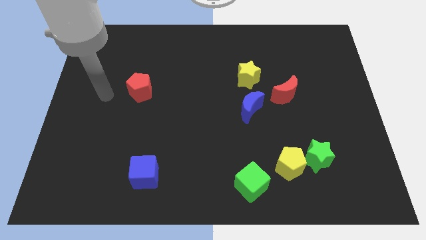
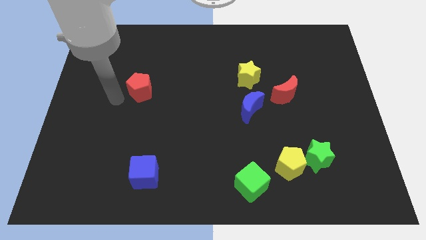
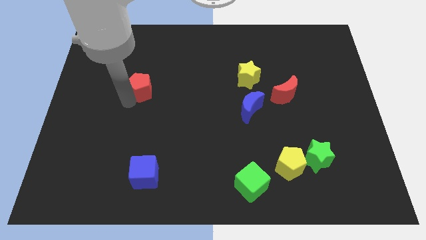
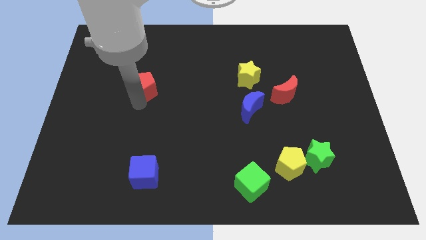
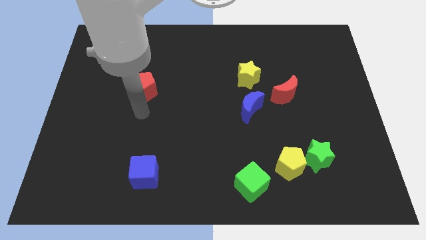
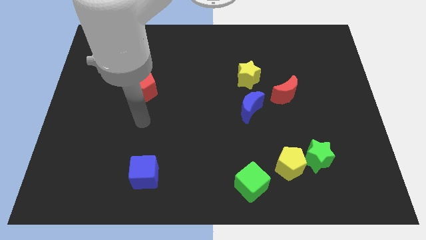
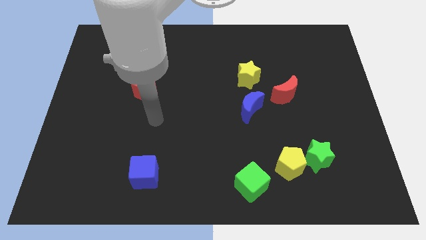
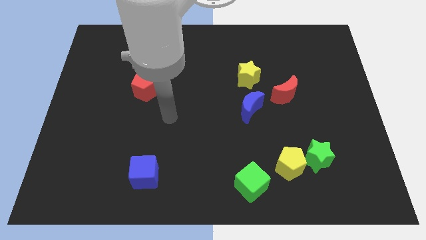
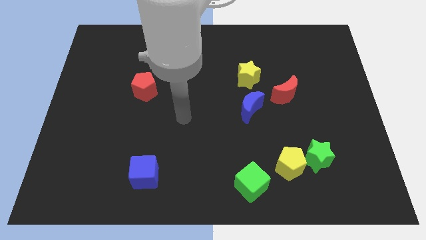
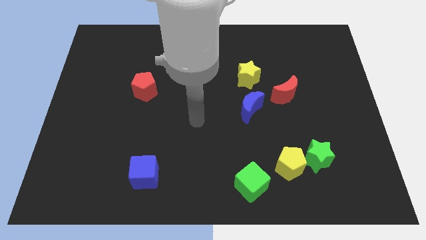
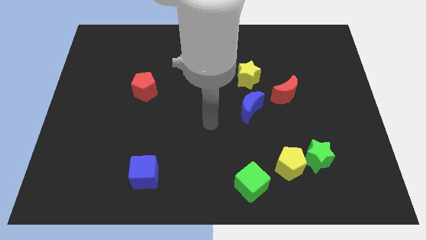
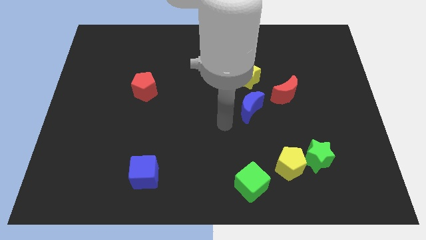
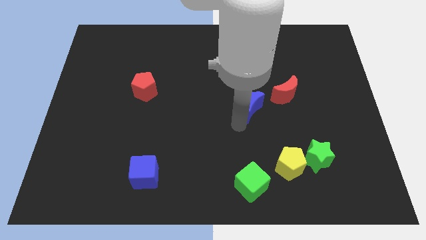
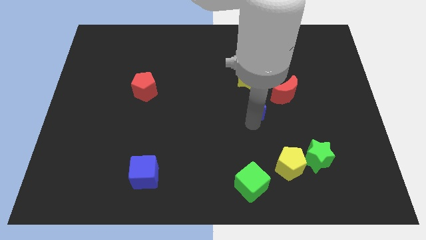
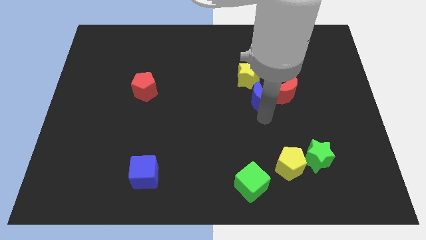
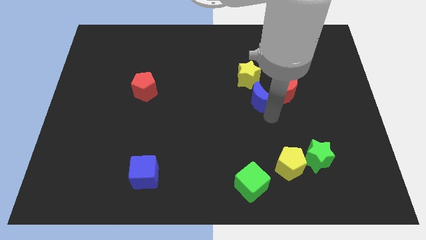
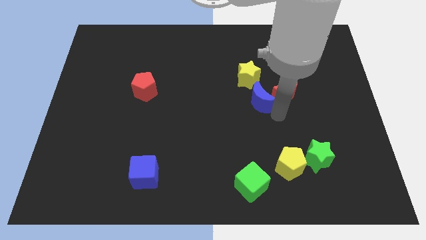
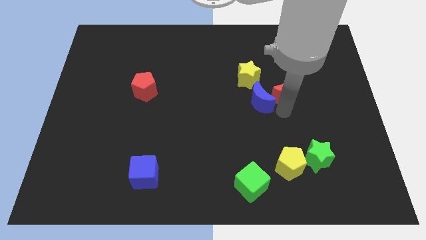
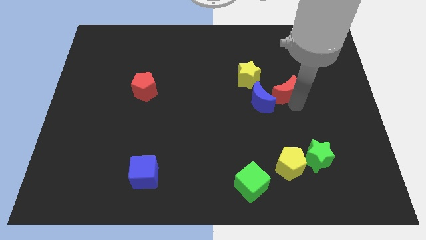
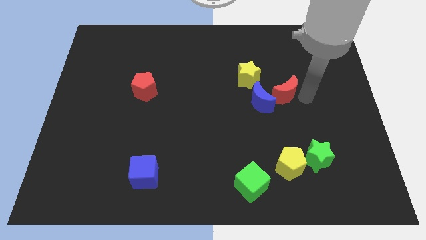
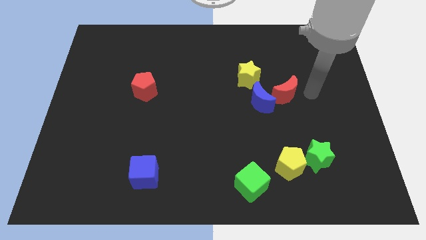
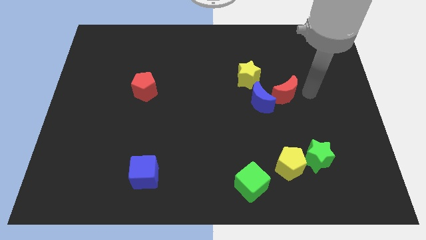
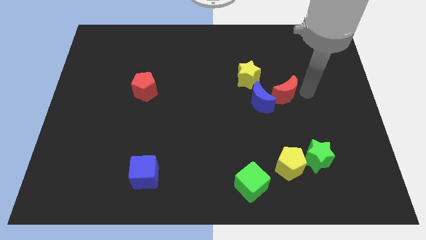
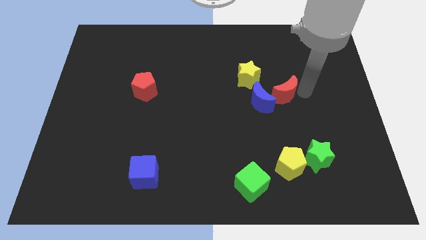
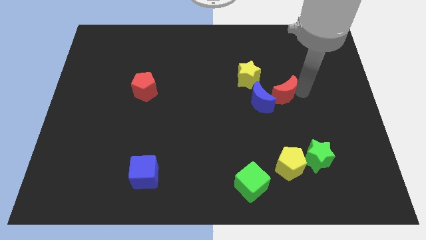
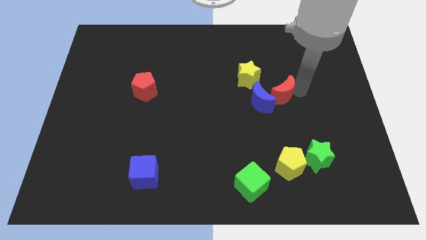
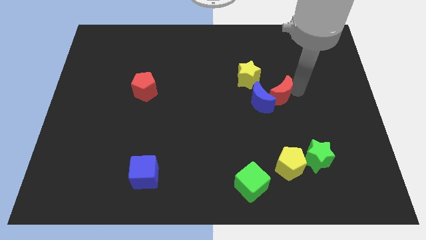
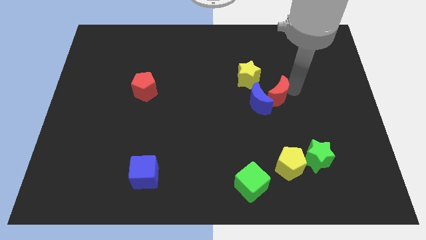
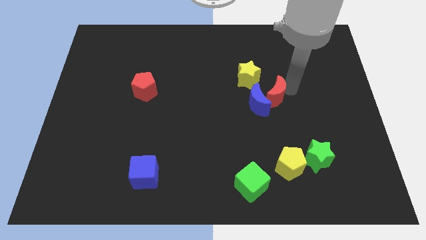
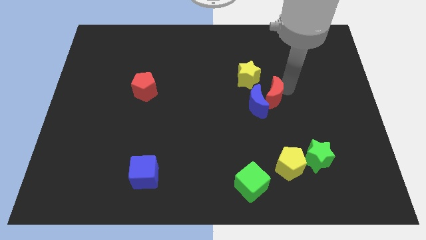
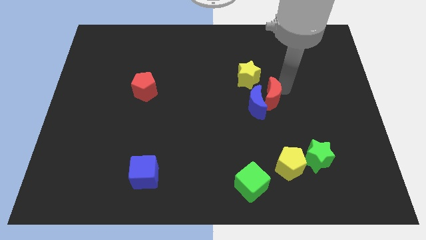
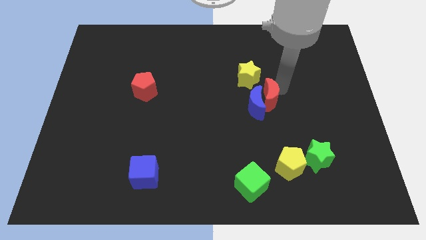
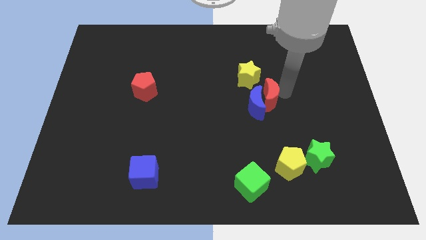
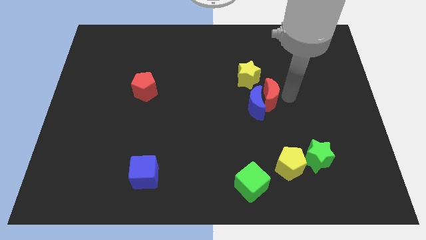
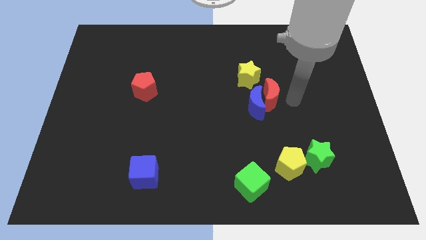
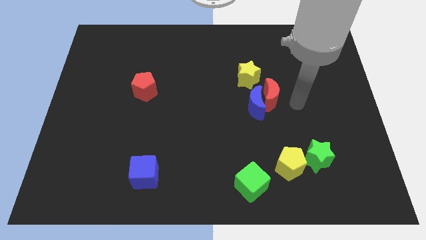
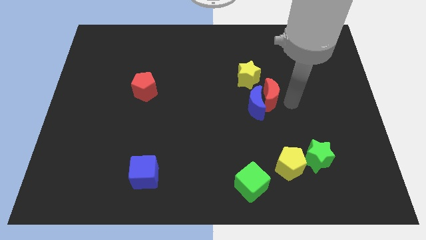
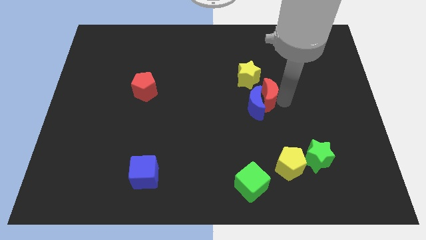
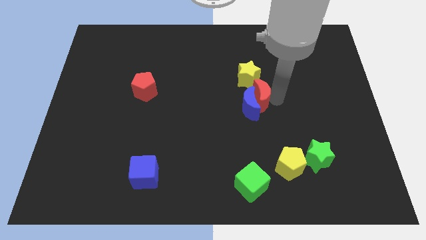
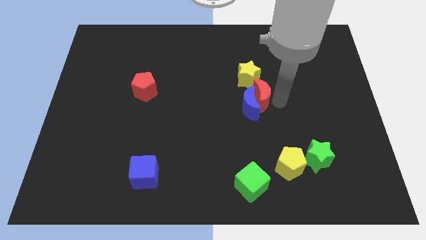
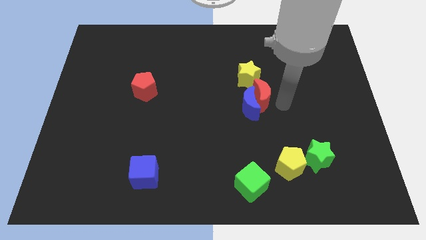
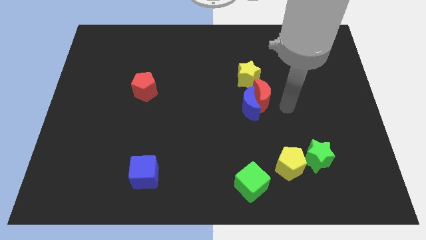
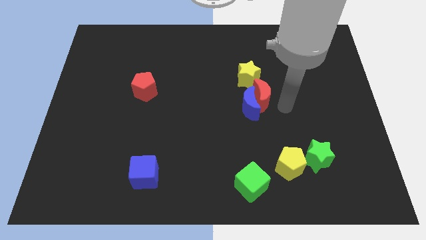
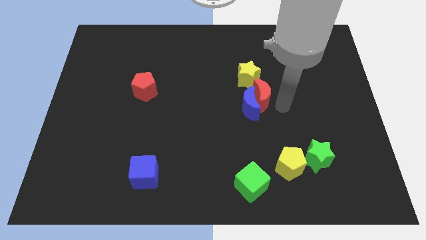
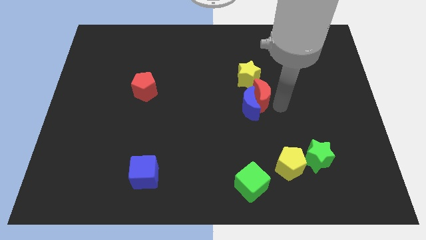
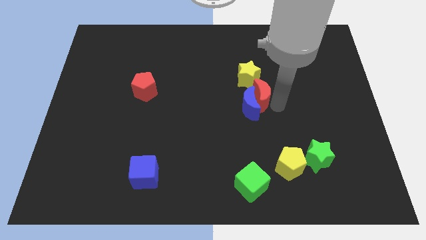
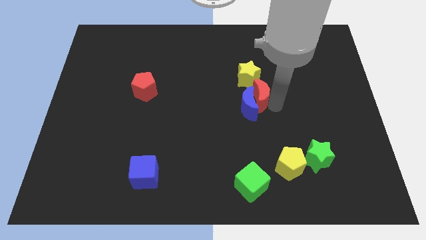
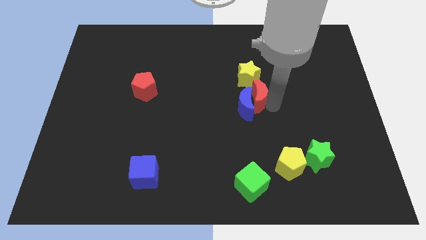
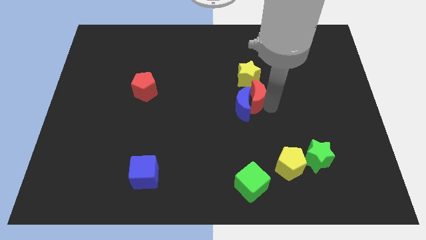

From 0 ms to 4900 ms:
slightly move the red moon to the left

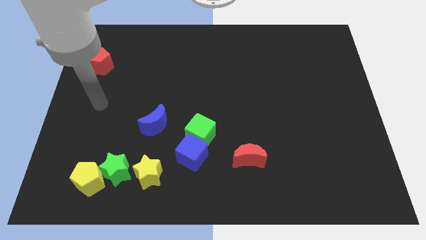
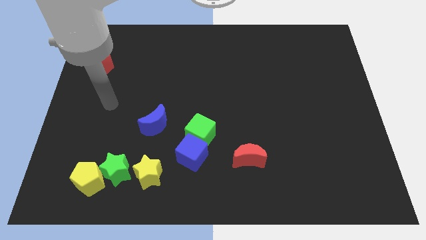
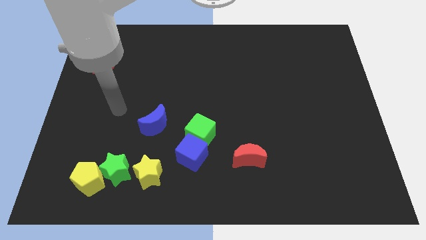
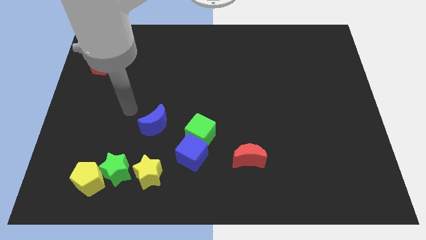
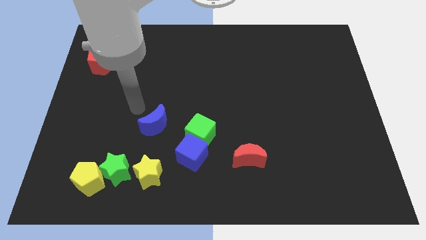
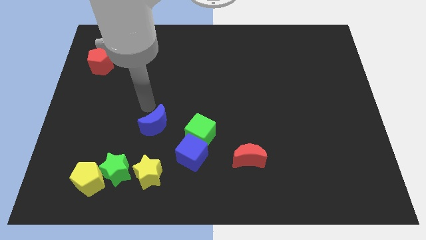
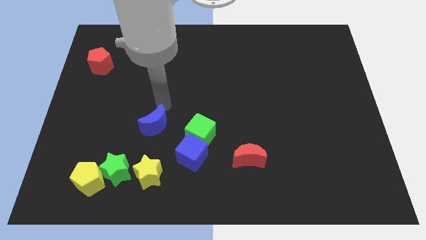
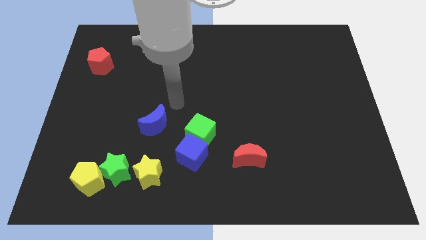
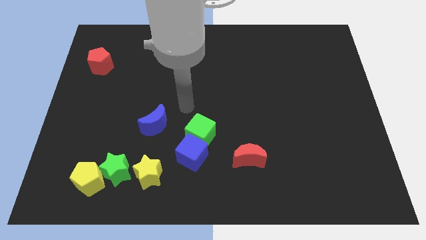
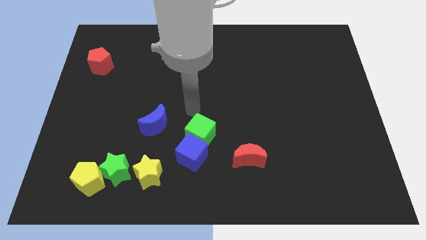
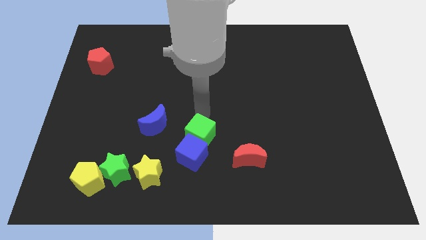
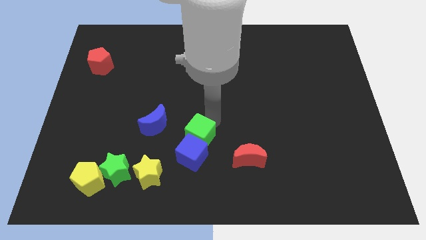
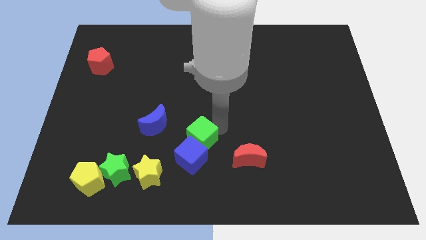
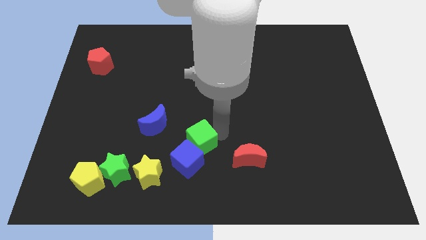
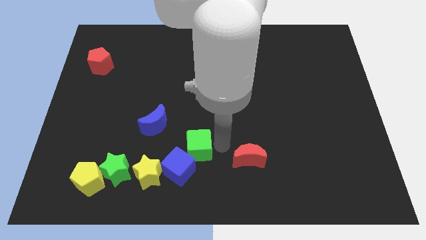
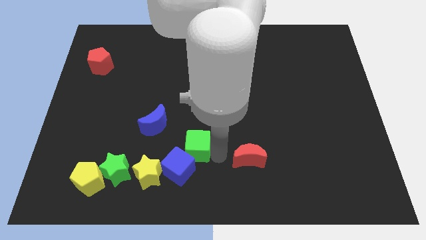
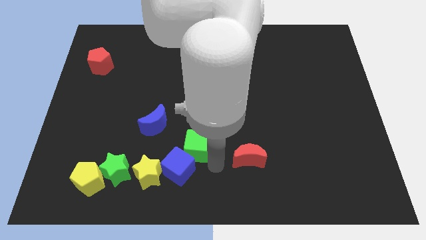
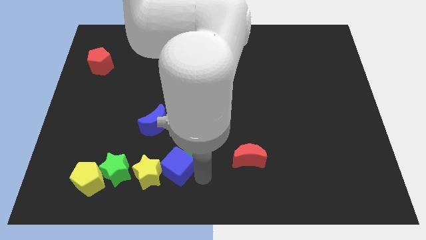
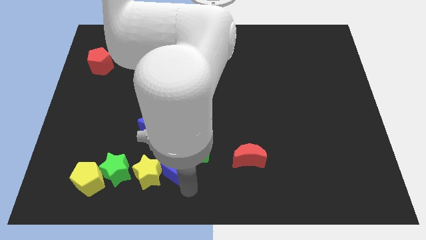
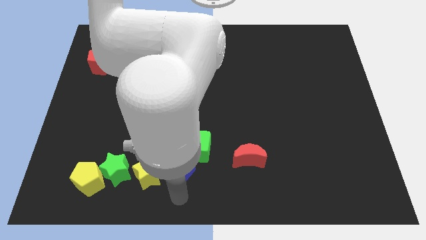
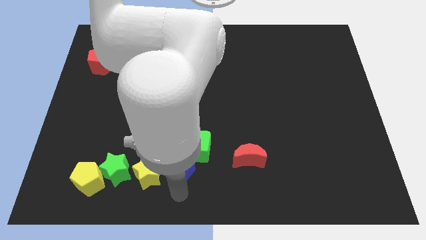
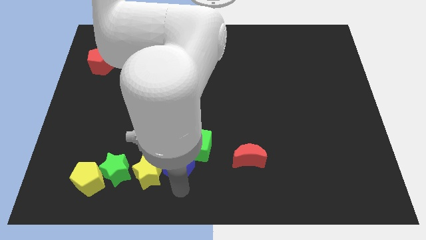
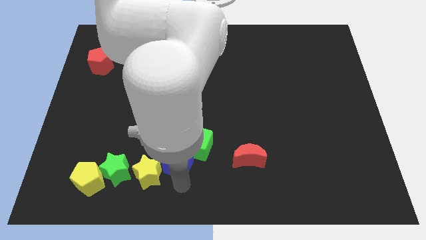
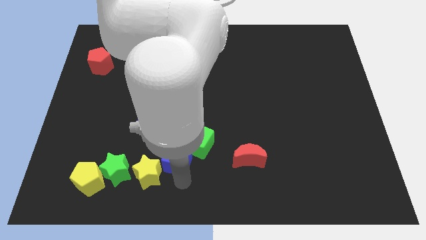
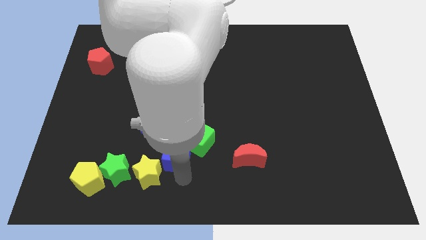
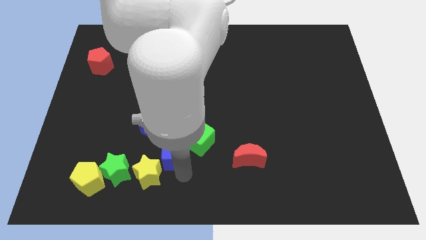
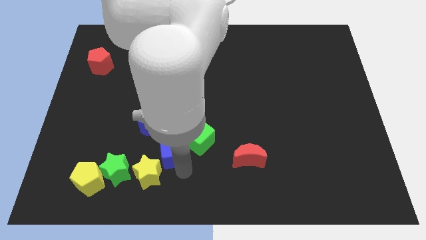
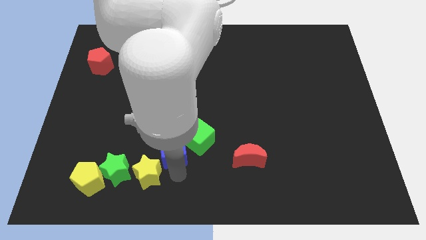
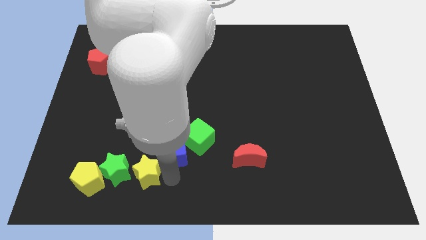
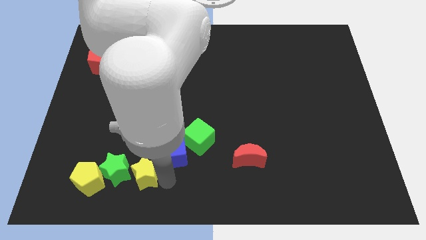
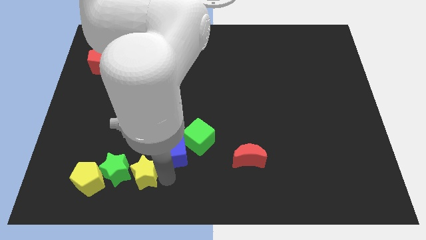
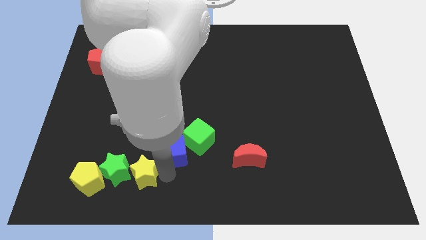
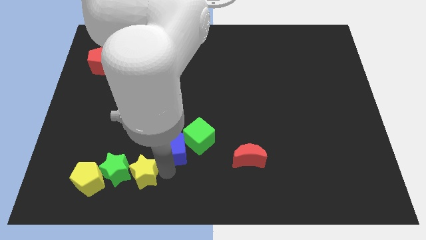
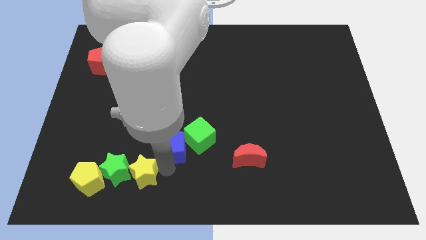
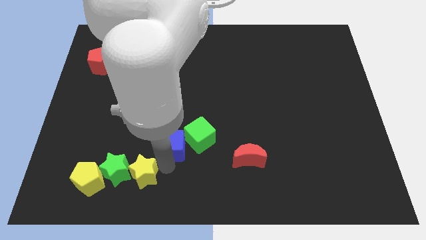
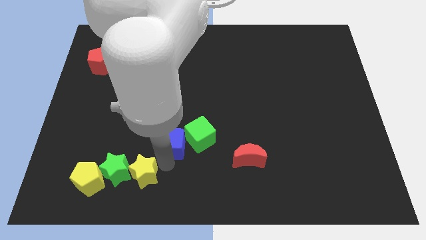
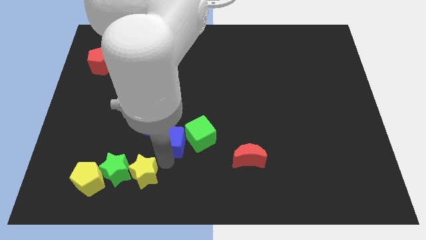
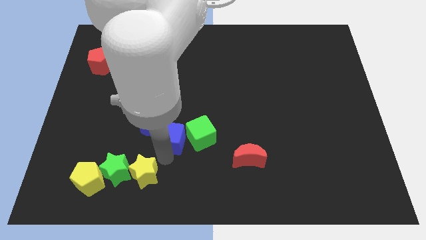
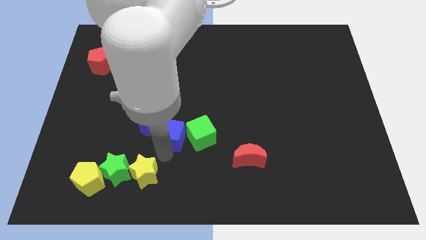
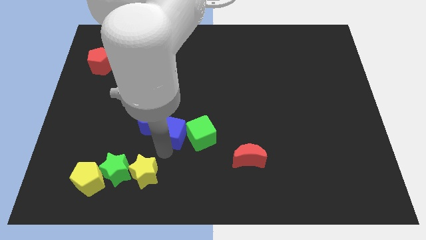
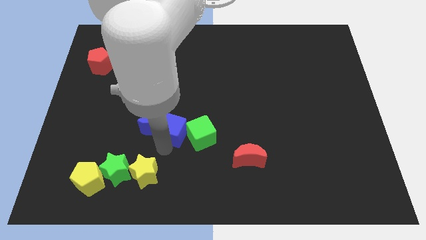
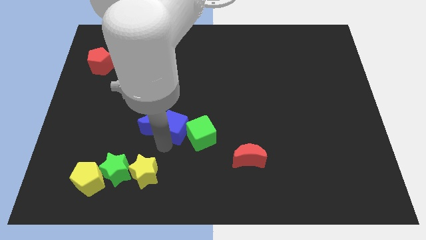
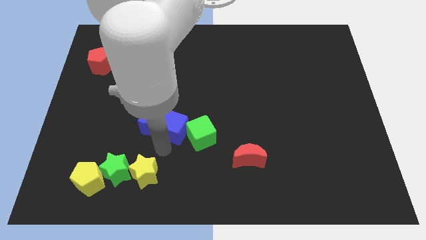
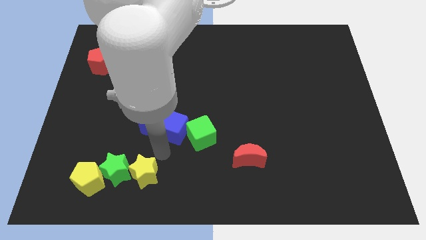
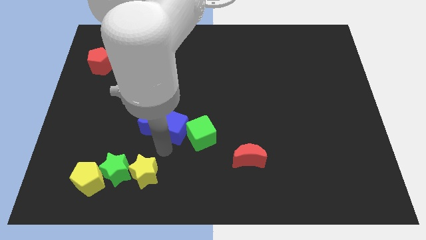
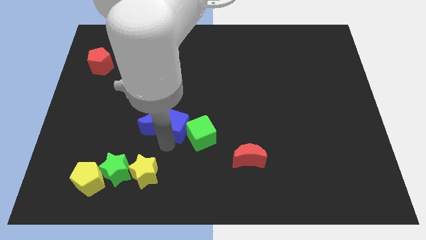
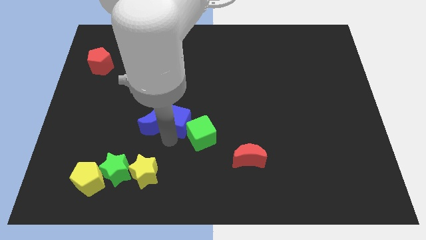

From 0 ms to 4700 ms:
slightly move the blue cube up
